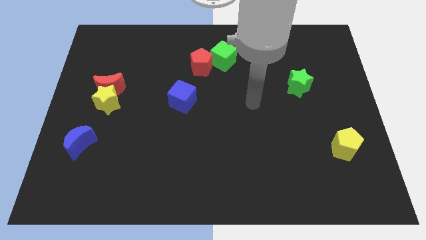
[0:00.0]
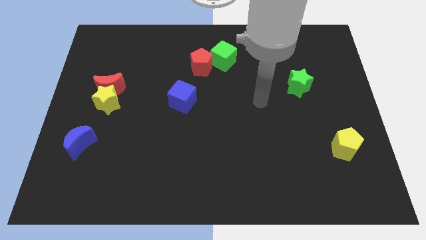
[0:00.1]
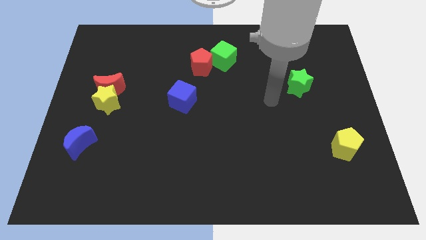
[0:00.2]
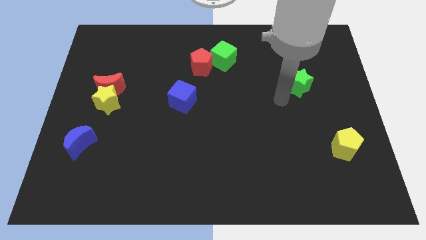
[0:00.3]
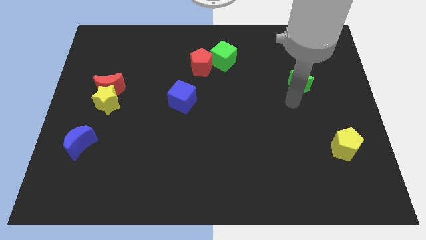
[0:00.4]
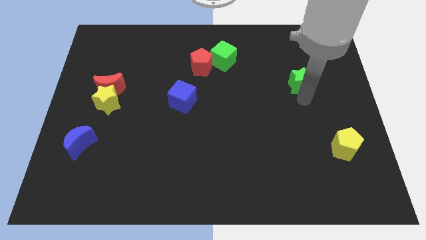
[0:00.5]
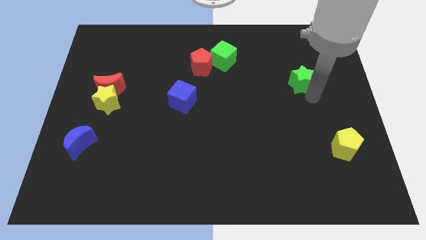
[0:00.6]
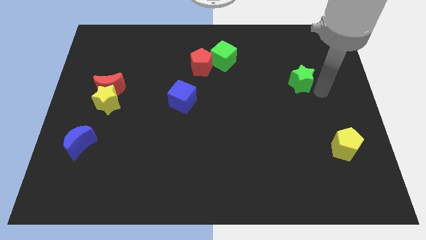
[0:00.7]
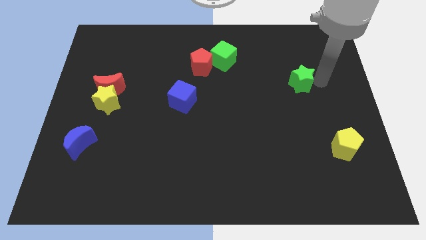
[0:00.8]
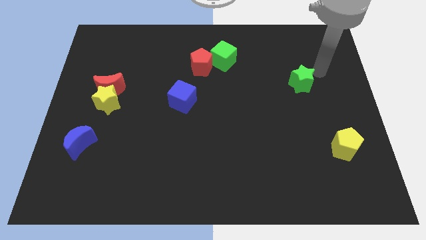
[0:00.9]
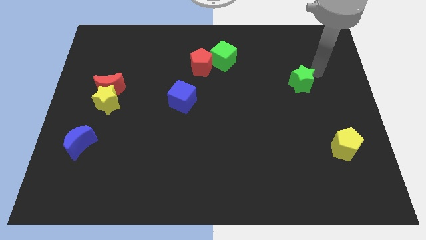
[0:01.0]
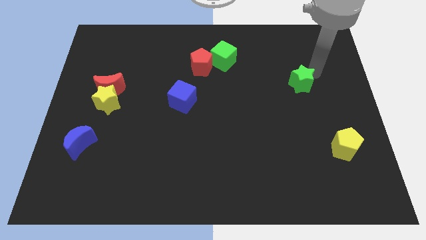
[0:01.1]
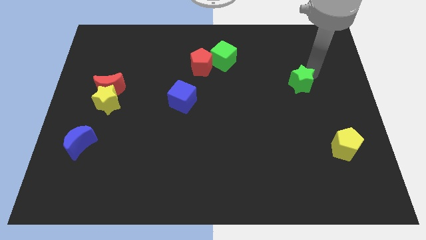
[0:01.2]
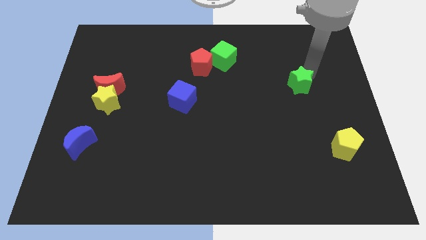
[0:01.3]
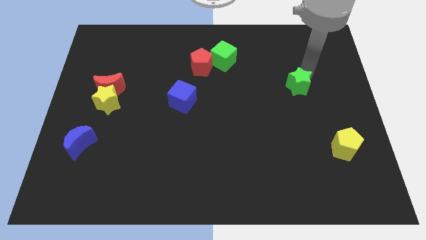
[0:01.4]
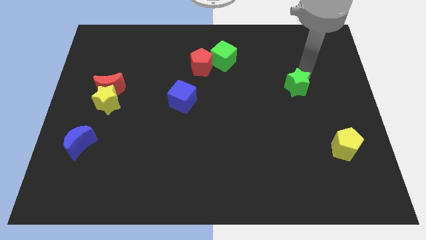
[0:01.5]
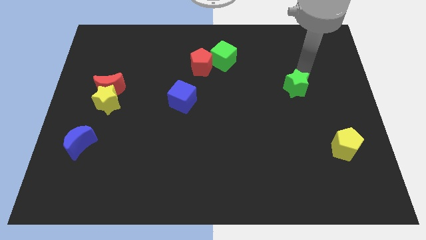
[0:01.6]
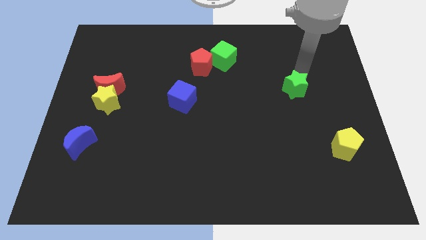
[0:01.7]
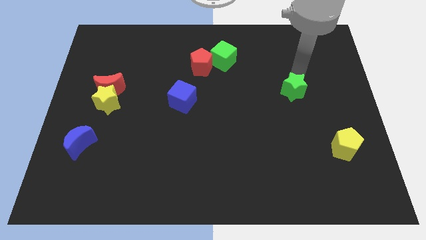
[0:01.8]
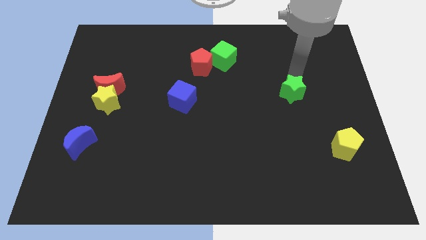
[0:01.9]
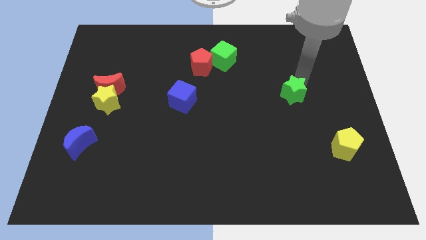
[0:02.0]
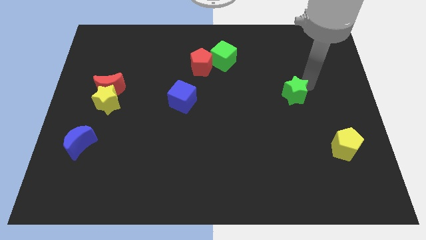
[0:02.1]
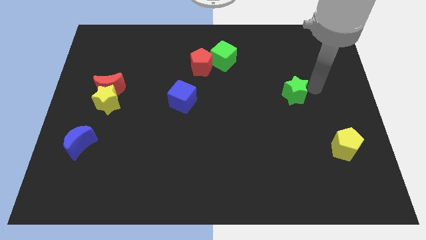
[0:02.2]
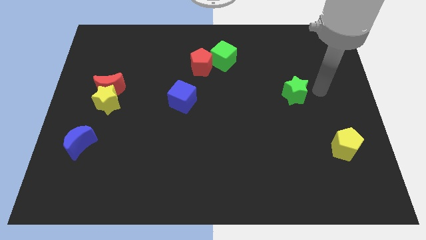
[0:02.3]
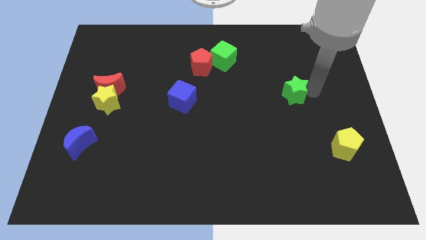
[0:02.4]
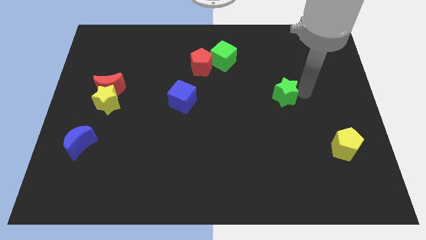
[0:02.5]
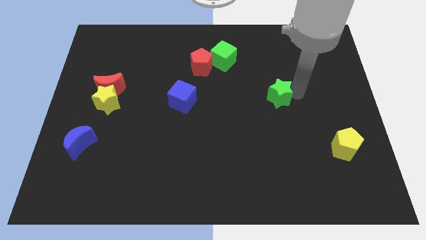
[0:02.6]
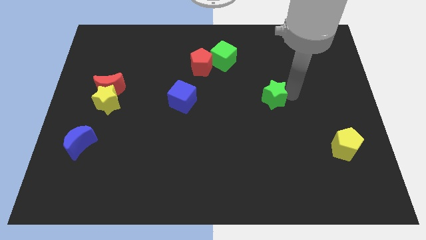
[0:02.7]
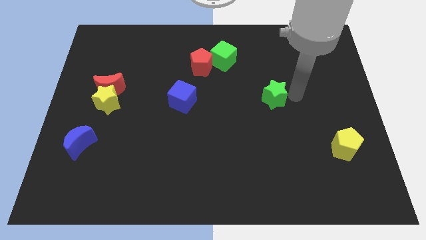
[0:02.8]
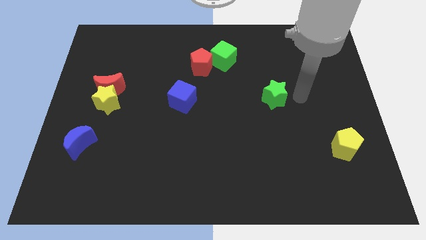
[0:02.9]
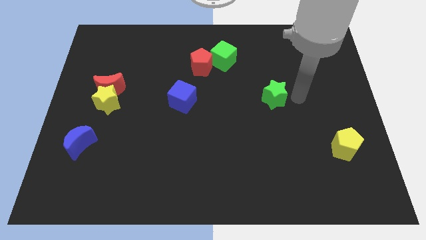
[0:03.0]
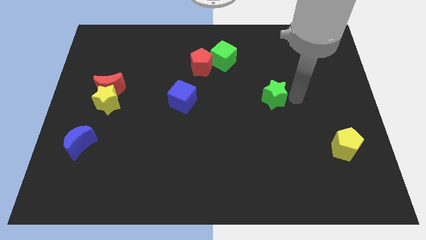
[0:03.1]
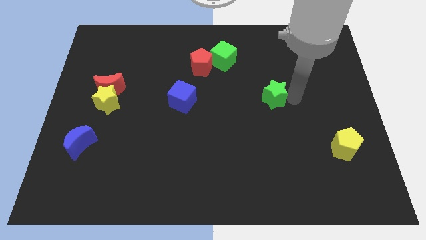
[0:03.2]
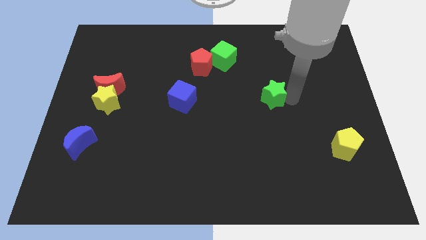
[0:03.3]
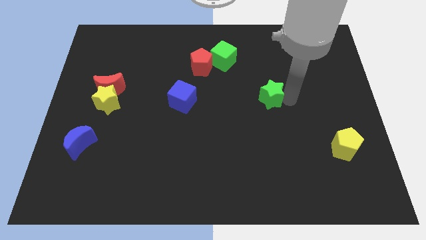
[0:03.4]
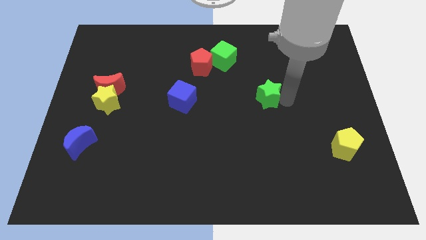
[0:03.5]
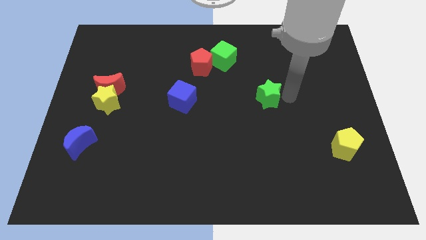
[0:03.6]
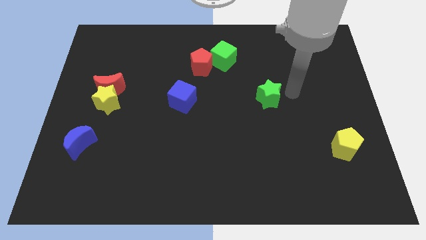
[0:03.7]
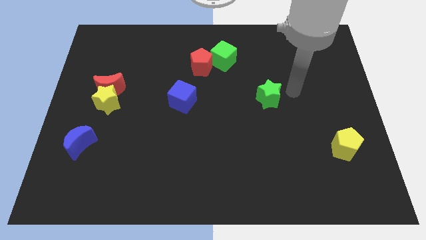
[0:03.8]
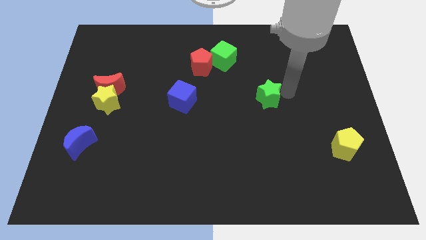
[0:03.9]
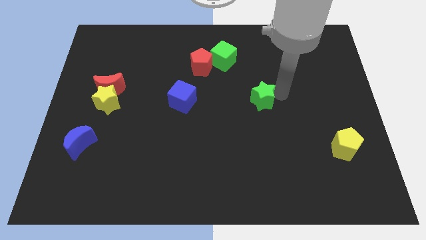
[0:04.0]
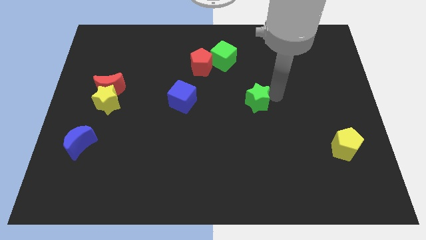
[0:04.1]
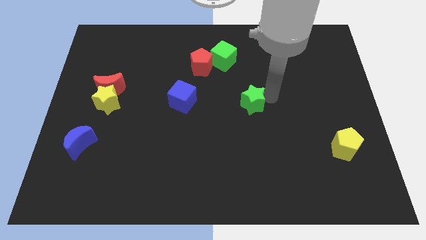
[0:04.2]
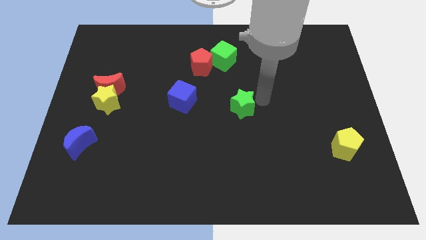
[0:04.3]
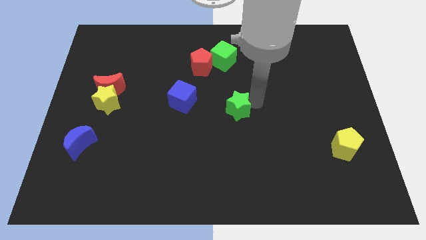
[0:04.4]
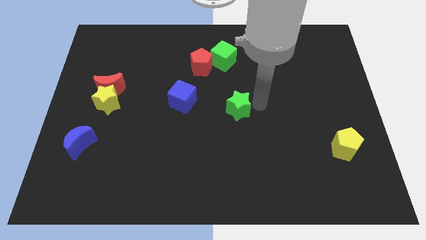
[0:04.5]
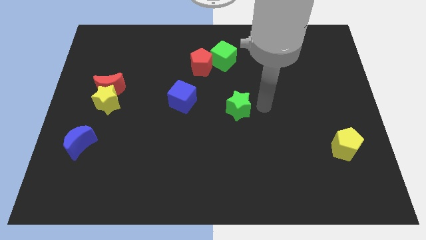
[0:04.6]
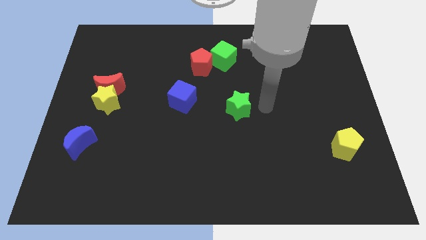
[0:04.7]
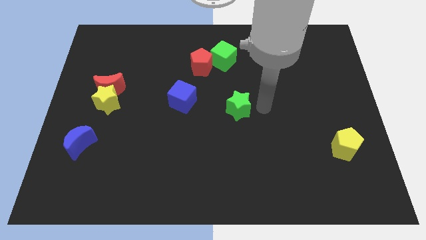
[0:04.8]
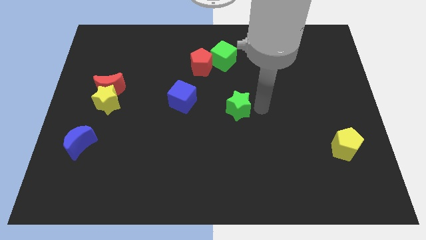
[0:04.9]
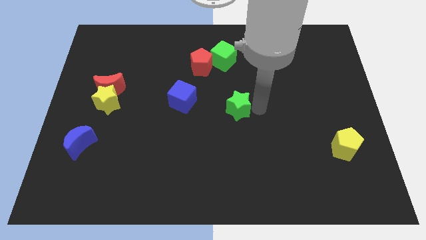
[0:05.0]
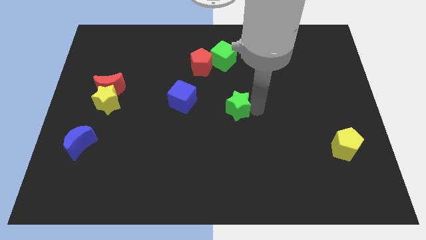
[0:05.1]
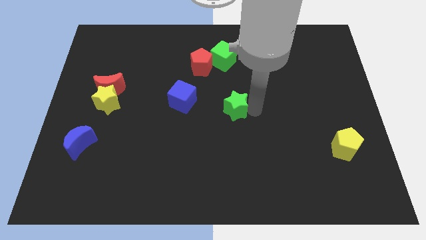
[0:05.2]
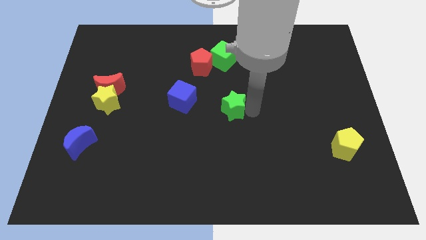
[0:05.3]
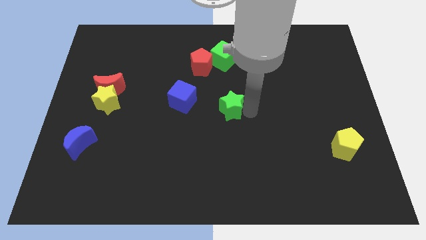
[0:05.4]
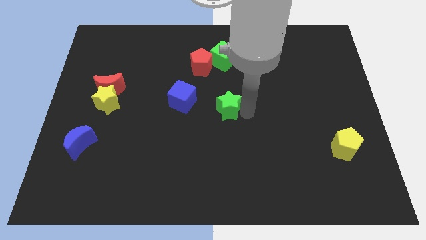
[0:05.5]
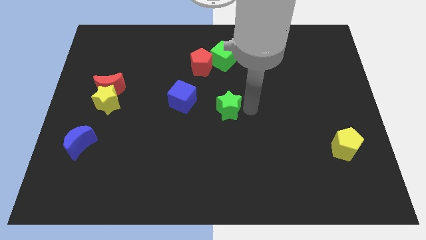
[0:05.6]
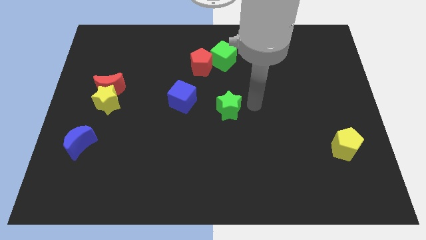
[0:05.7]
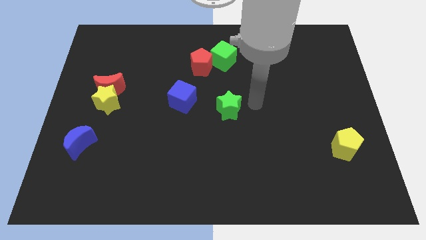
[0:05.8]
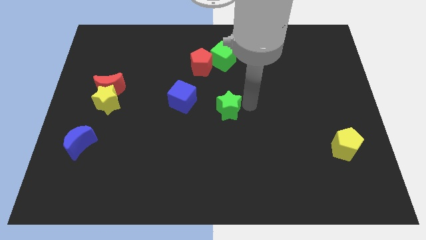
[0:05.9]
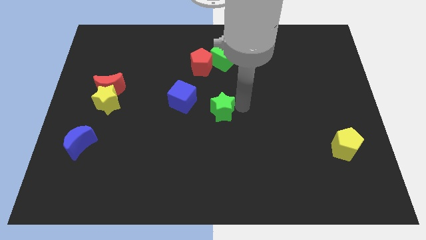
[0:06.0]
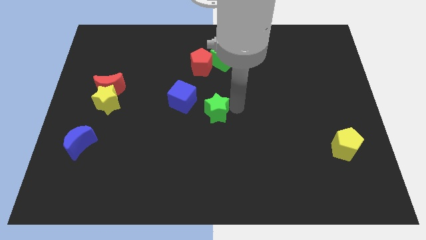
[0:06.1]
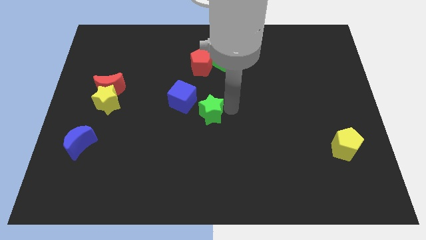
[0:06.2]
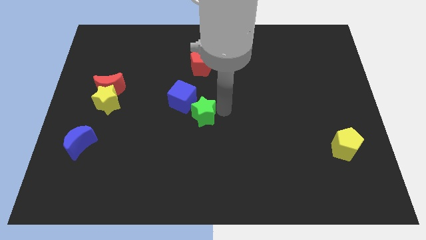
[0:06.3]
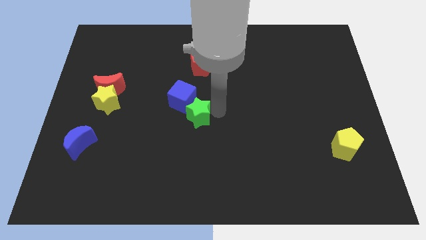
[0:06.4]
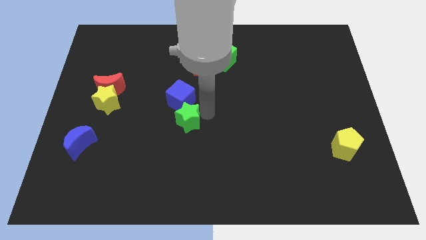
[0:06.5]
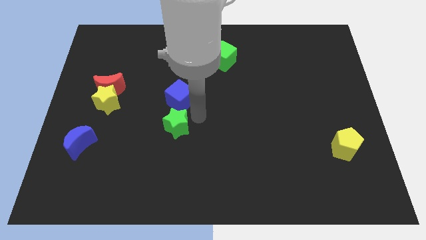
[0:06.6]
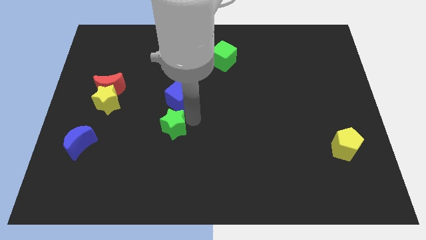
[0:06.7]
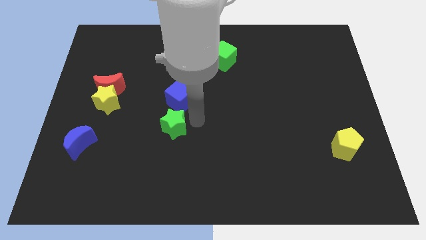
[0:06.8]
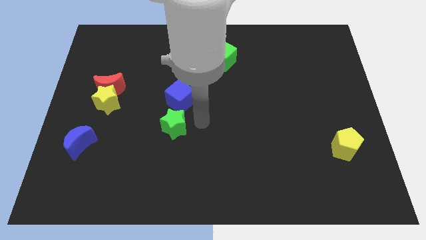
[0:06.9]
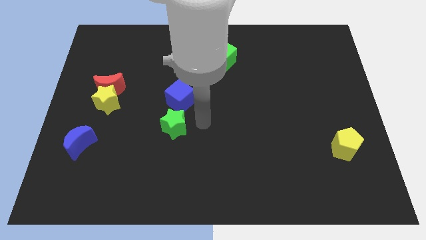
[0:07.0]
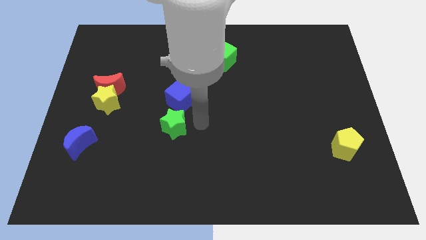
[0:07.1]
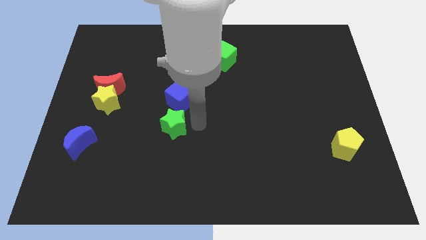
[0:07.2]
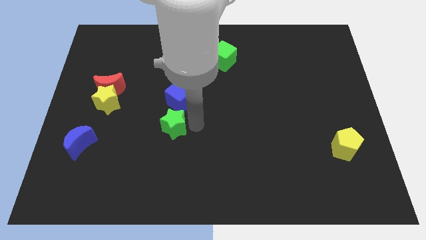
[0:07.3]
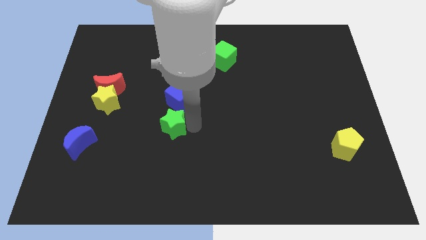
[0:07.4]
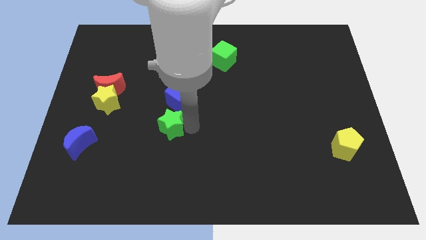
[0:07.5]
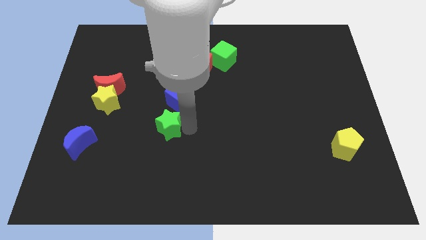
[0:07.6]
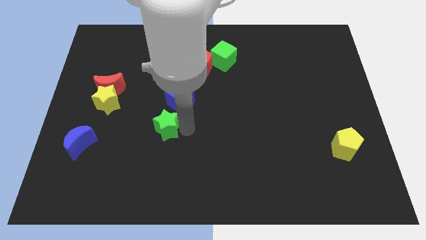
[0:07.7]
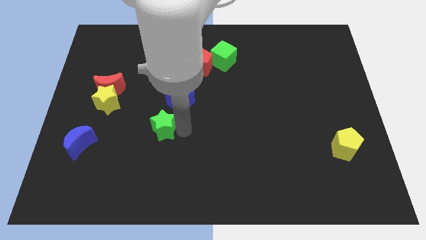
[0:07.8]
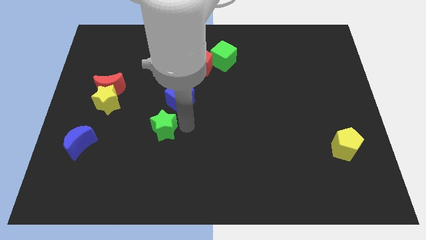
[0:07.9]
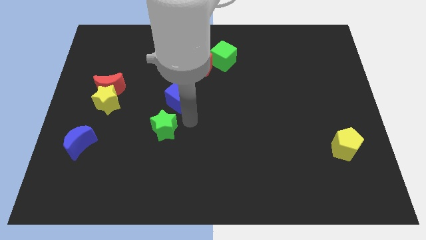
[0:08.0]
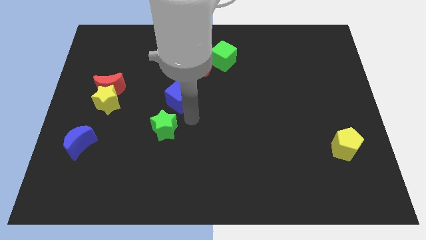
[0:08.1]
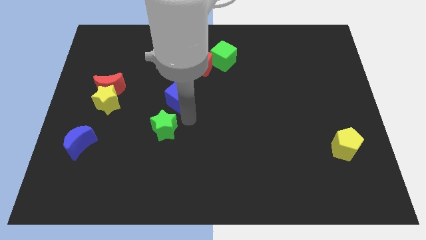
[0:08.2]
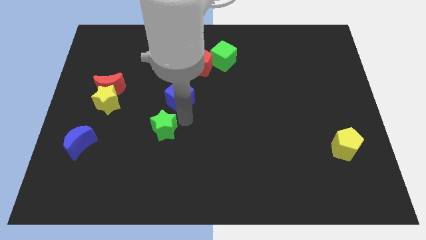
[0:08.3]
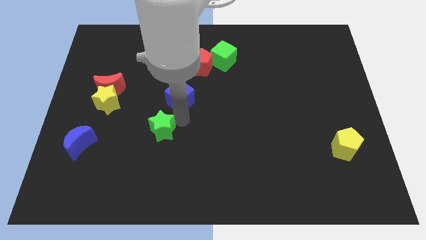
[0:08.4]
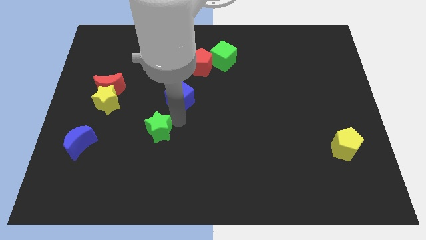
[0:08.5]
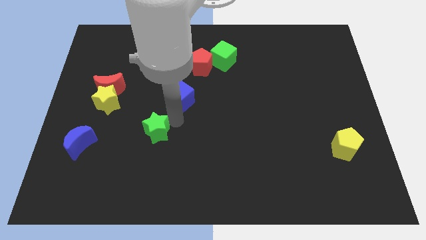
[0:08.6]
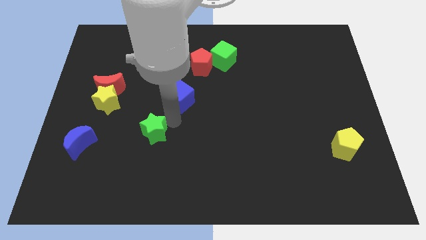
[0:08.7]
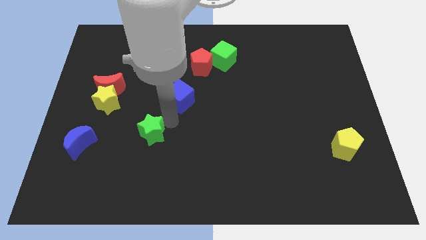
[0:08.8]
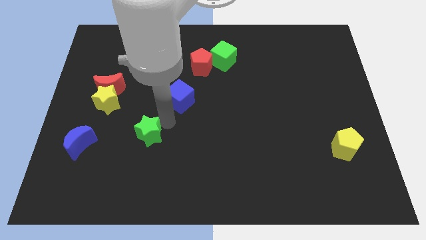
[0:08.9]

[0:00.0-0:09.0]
move the green star right of the blue moon
